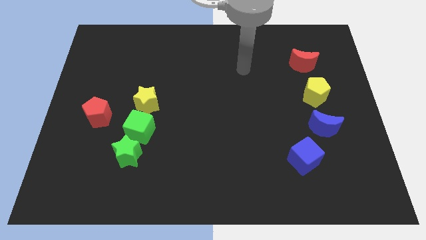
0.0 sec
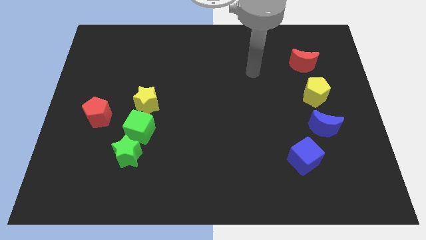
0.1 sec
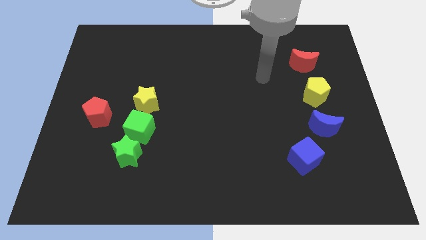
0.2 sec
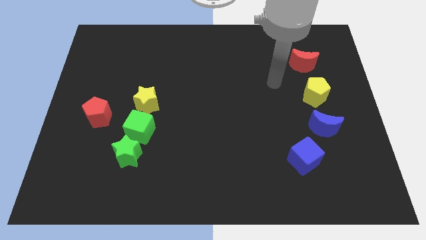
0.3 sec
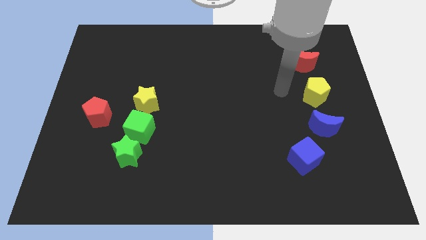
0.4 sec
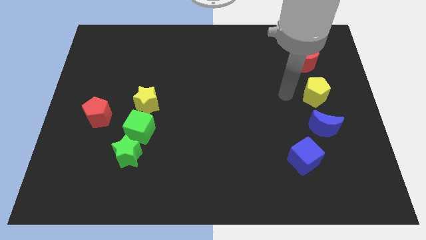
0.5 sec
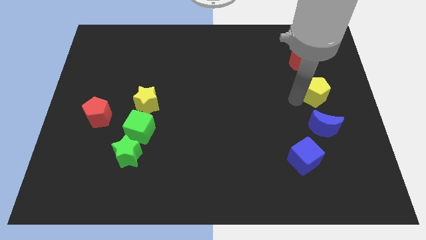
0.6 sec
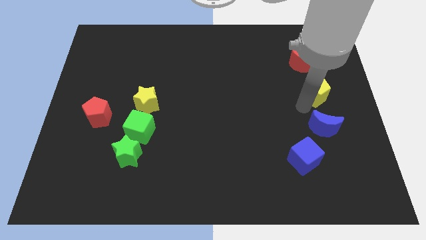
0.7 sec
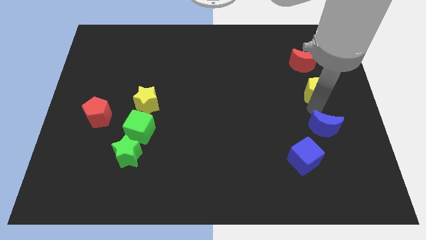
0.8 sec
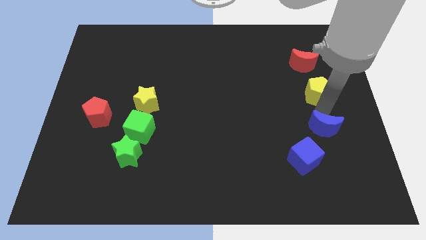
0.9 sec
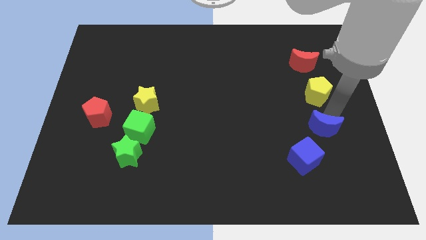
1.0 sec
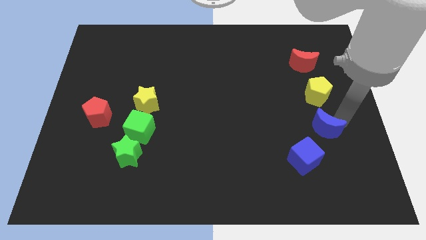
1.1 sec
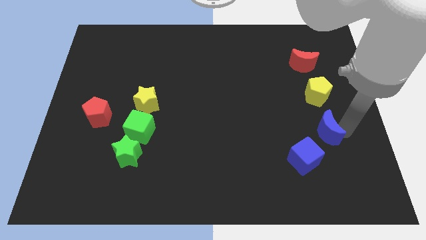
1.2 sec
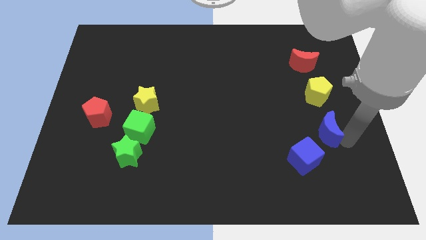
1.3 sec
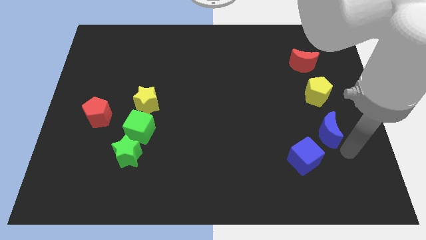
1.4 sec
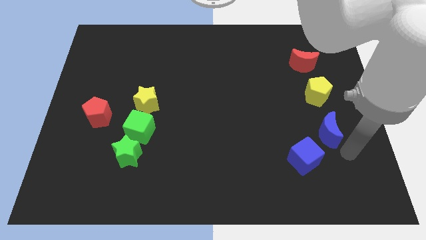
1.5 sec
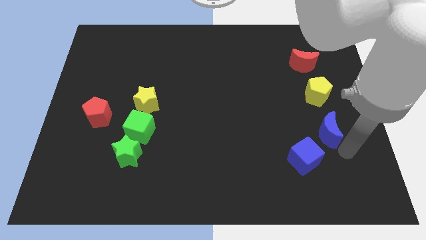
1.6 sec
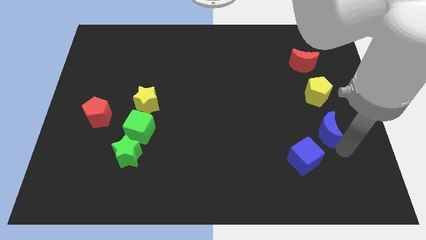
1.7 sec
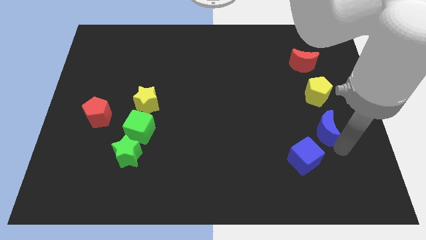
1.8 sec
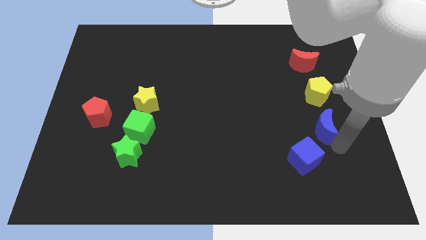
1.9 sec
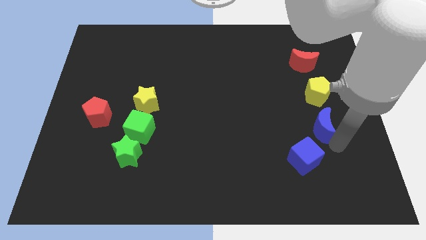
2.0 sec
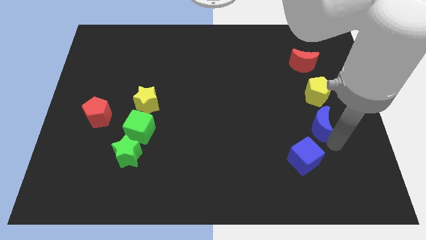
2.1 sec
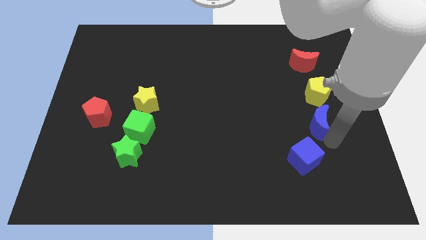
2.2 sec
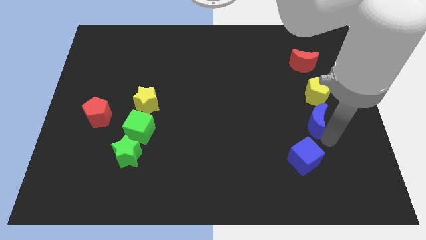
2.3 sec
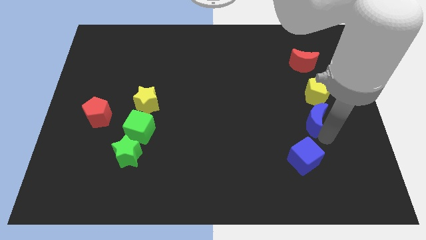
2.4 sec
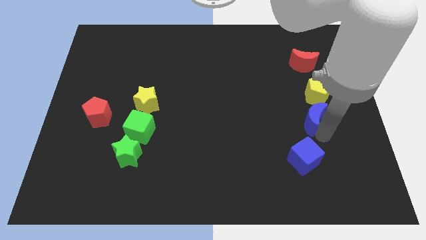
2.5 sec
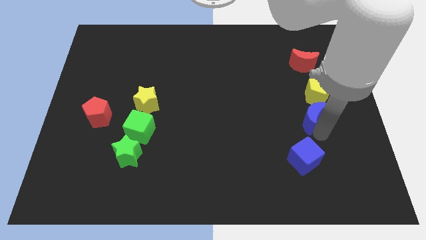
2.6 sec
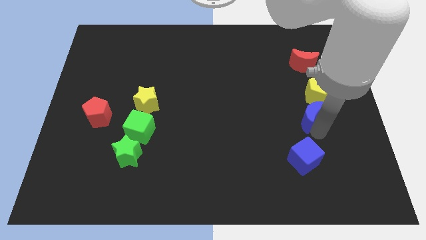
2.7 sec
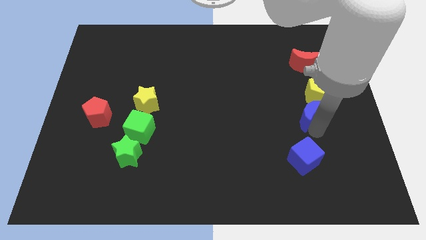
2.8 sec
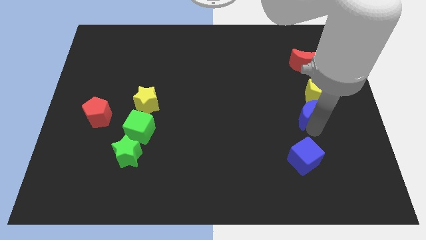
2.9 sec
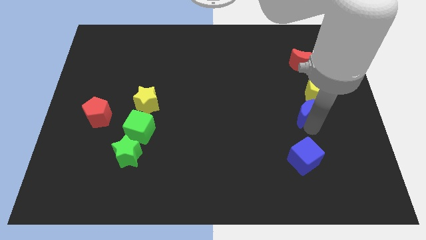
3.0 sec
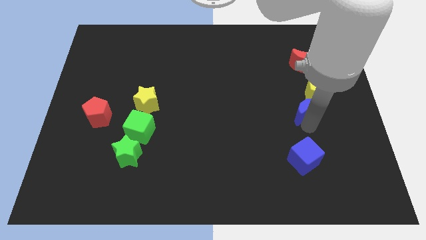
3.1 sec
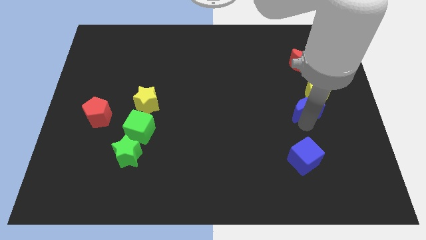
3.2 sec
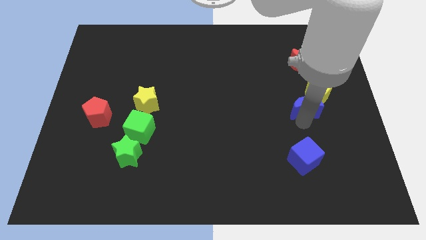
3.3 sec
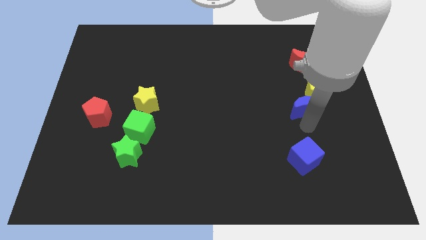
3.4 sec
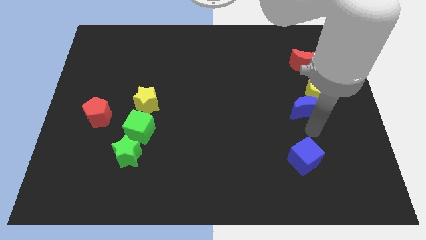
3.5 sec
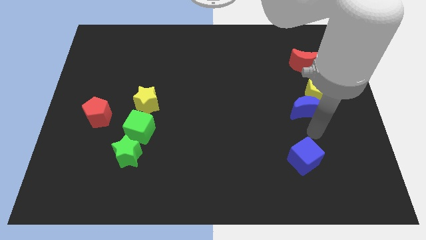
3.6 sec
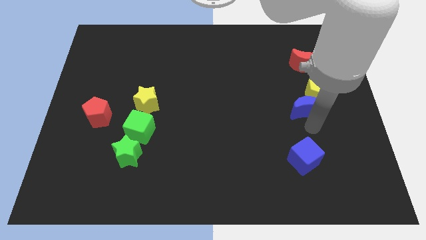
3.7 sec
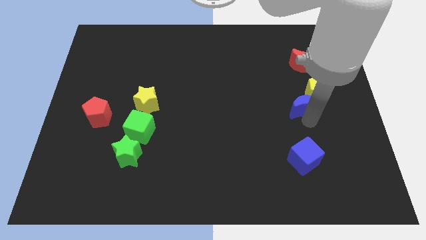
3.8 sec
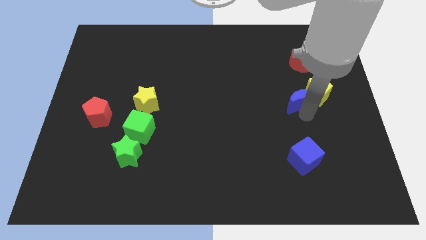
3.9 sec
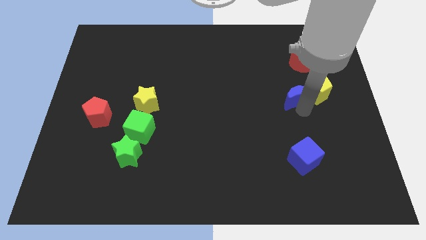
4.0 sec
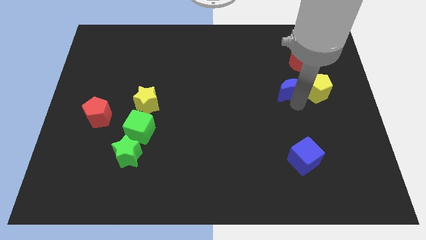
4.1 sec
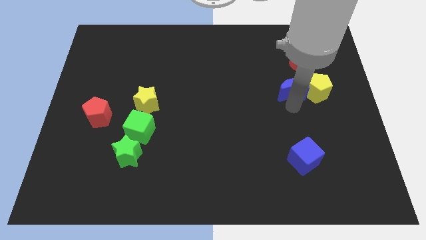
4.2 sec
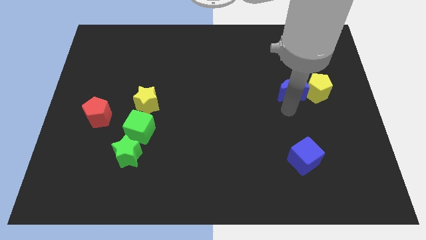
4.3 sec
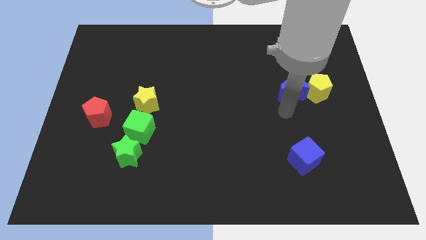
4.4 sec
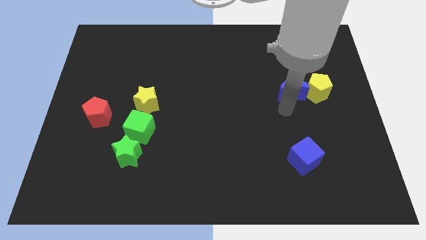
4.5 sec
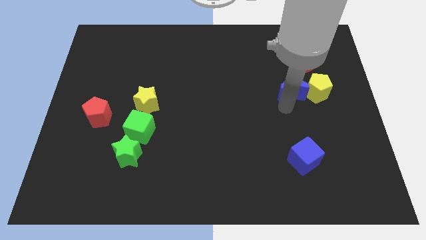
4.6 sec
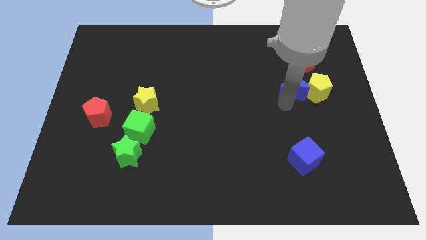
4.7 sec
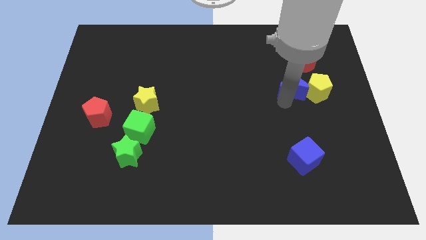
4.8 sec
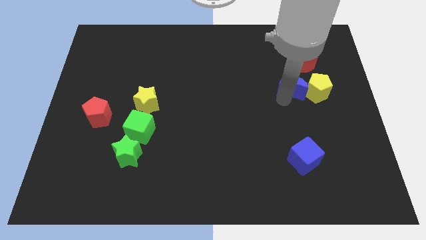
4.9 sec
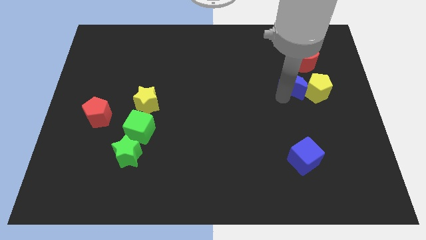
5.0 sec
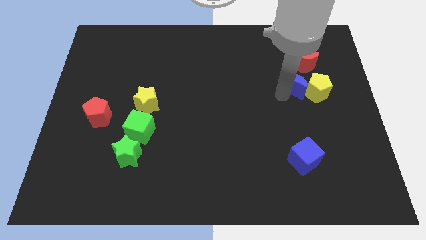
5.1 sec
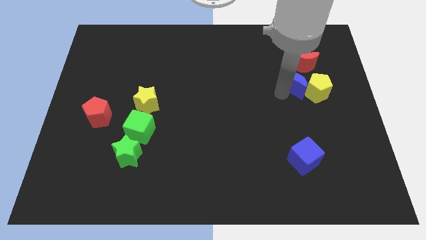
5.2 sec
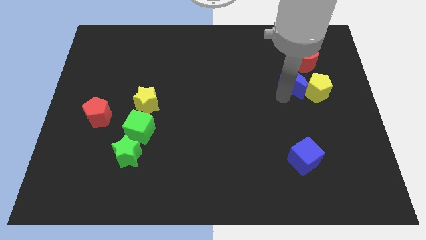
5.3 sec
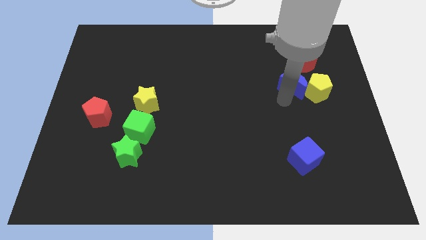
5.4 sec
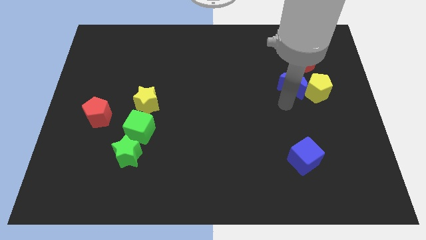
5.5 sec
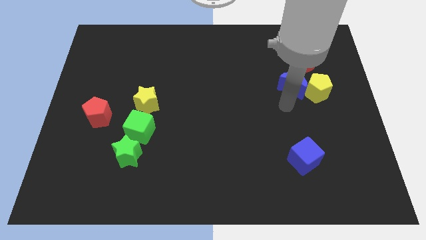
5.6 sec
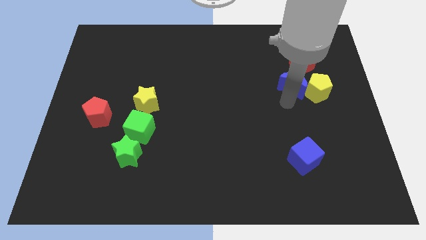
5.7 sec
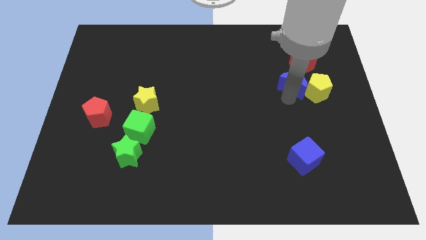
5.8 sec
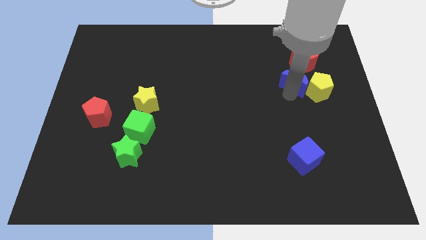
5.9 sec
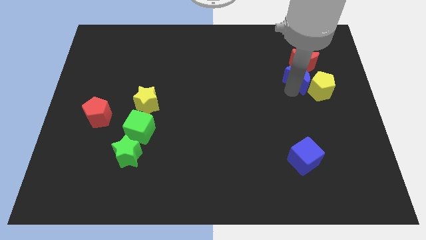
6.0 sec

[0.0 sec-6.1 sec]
push the blue moon to the red moon
